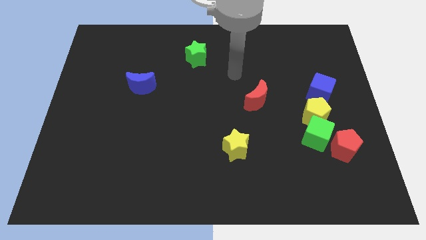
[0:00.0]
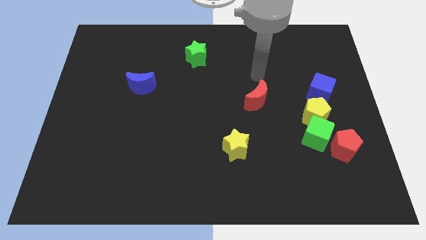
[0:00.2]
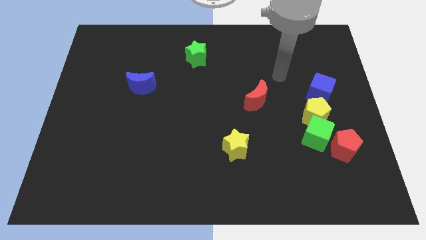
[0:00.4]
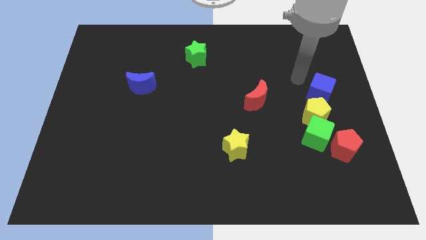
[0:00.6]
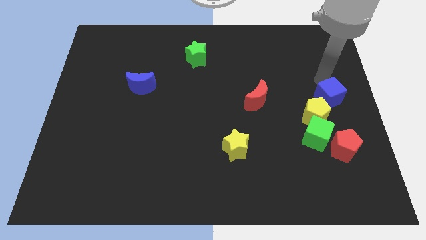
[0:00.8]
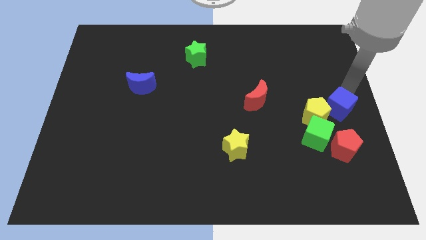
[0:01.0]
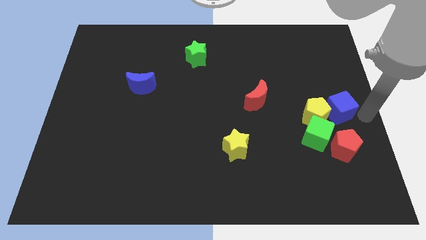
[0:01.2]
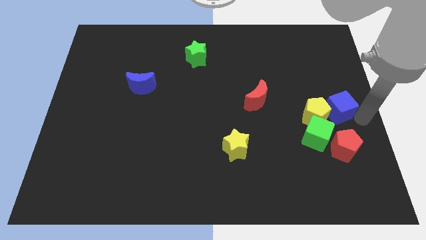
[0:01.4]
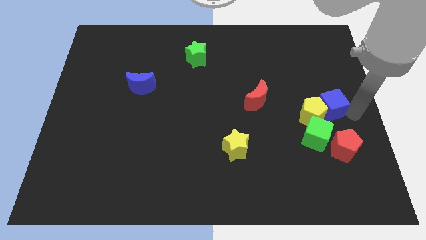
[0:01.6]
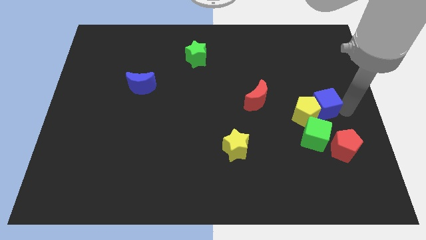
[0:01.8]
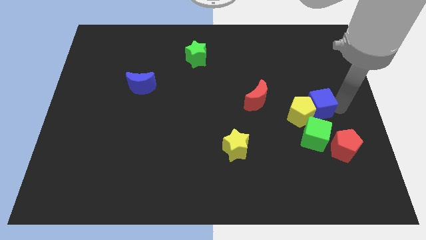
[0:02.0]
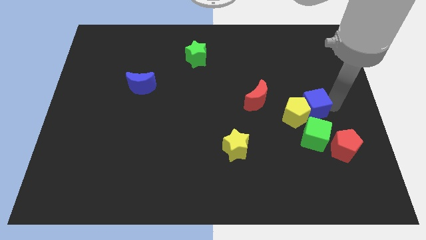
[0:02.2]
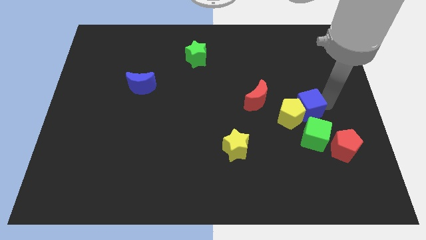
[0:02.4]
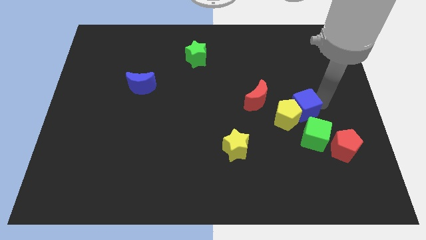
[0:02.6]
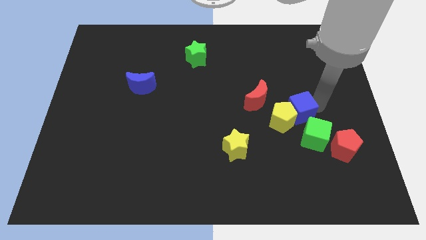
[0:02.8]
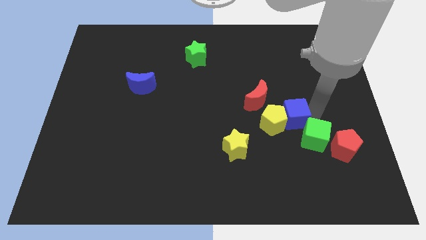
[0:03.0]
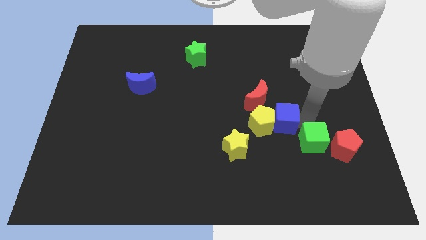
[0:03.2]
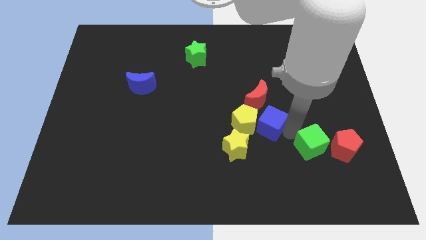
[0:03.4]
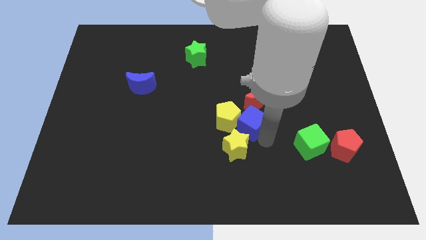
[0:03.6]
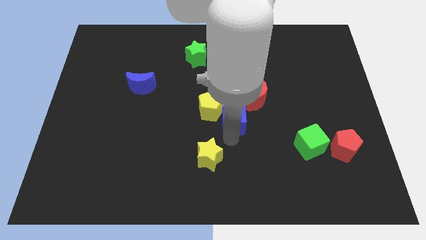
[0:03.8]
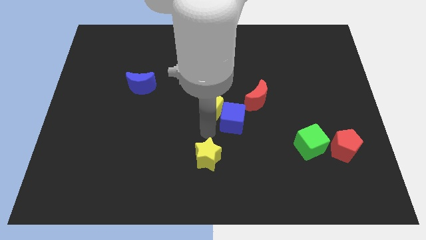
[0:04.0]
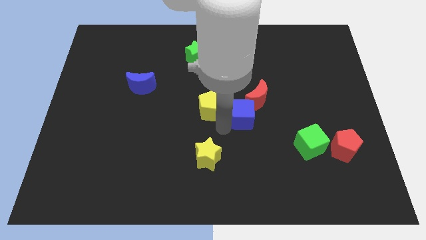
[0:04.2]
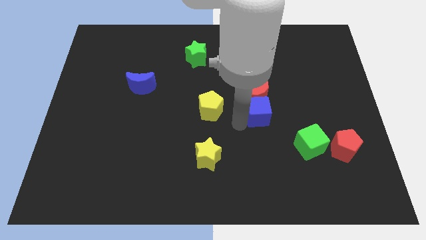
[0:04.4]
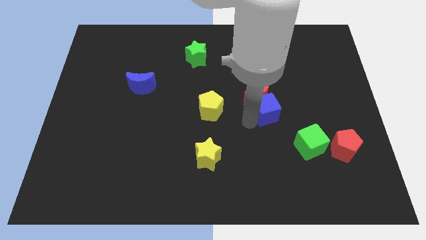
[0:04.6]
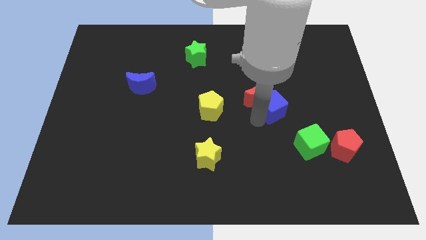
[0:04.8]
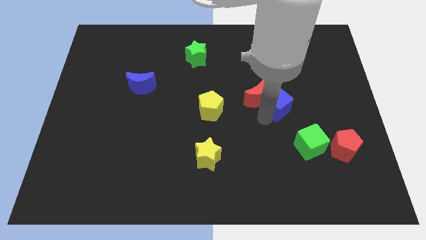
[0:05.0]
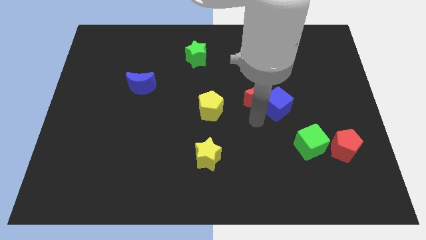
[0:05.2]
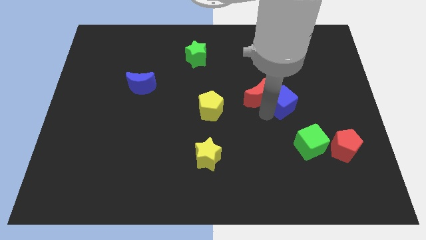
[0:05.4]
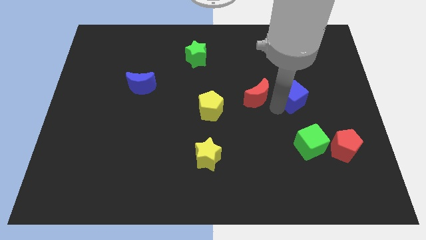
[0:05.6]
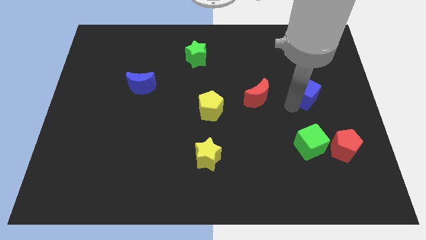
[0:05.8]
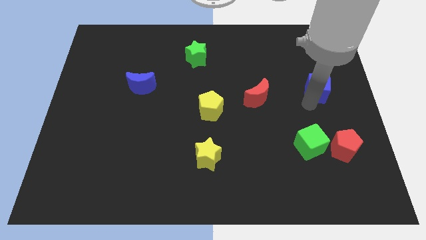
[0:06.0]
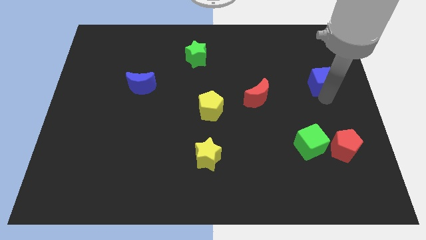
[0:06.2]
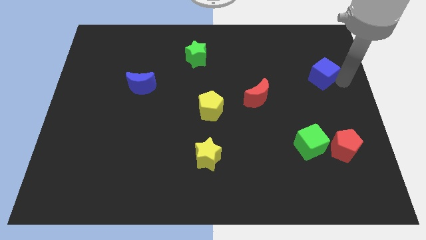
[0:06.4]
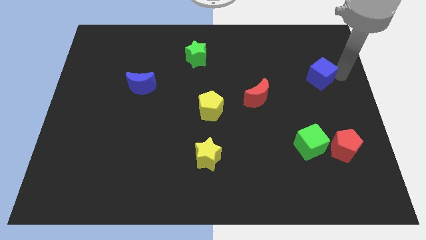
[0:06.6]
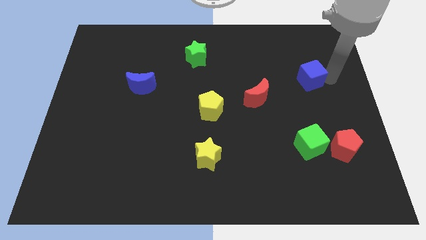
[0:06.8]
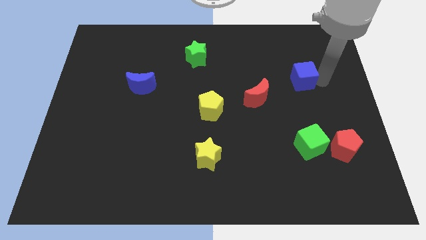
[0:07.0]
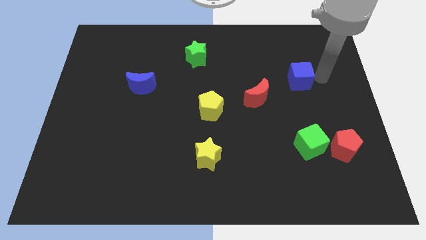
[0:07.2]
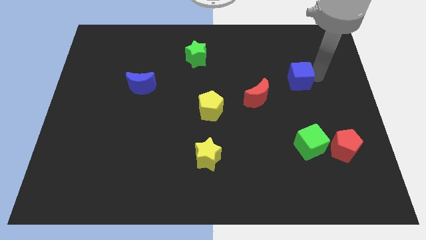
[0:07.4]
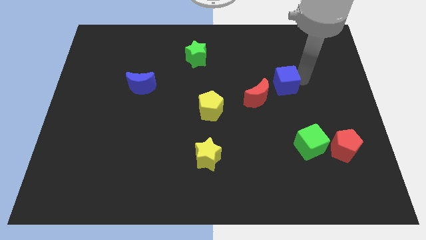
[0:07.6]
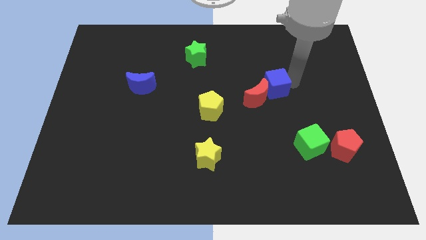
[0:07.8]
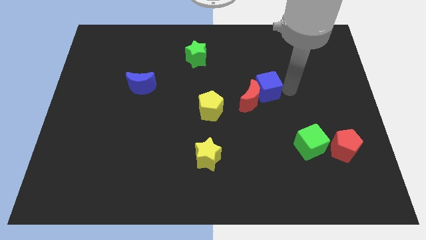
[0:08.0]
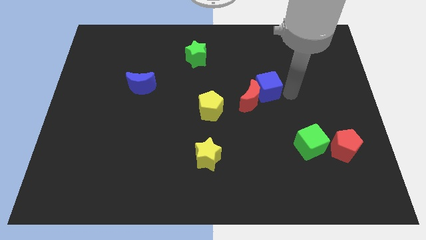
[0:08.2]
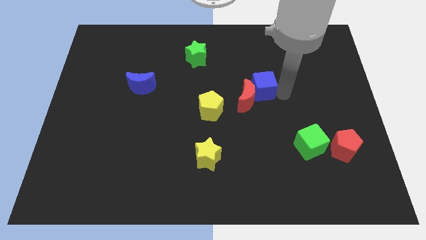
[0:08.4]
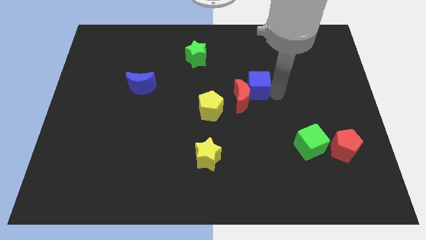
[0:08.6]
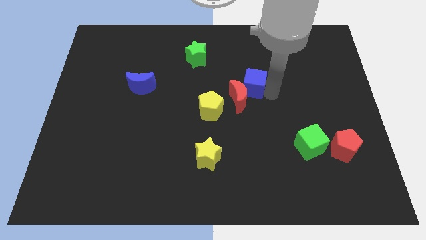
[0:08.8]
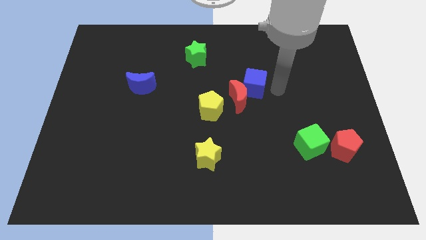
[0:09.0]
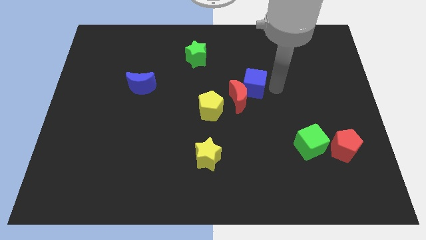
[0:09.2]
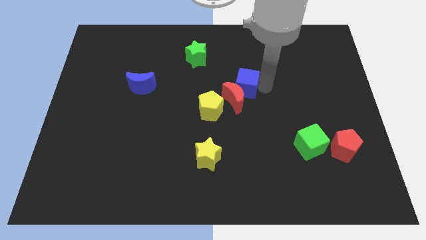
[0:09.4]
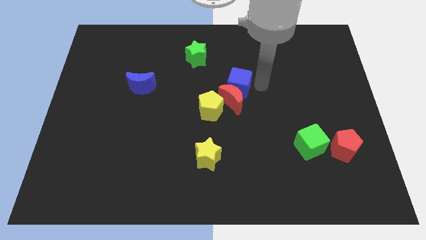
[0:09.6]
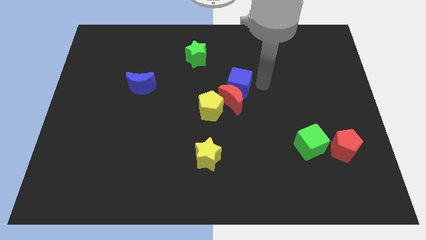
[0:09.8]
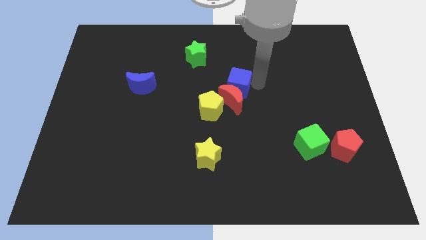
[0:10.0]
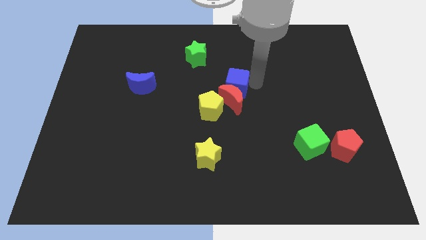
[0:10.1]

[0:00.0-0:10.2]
move the blue cube to the left

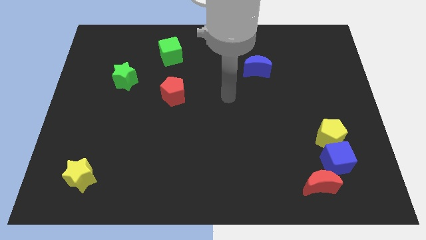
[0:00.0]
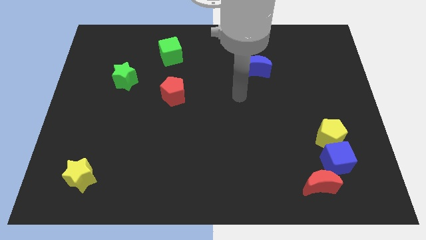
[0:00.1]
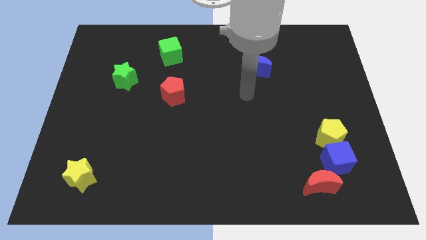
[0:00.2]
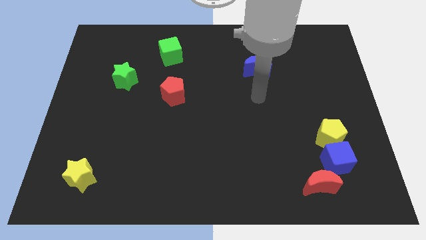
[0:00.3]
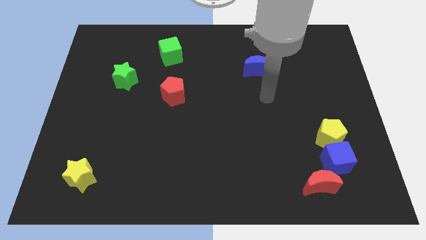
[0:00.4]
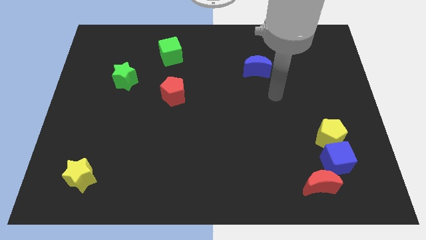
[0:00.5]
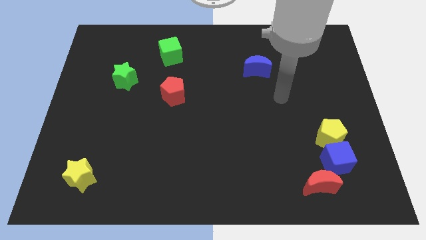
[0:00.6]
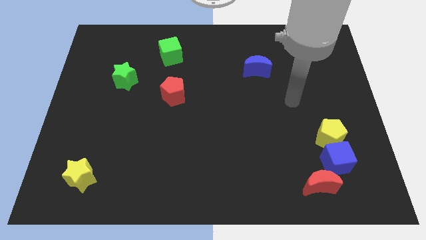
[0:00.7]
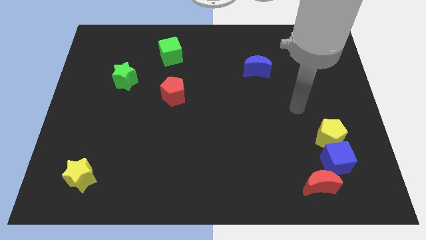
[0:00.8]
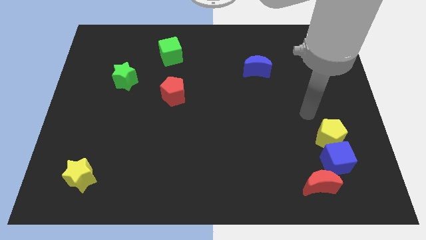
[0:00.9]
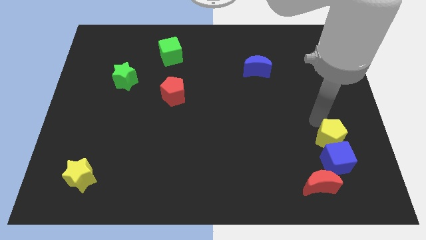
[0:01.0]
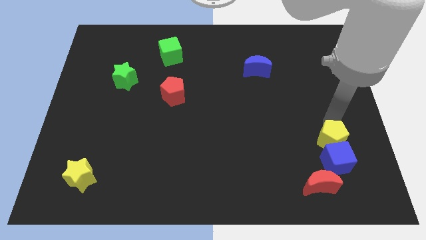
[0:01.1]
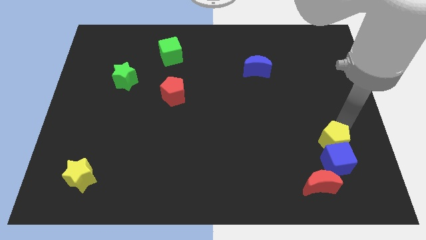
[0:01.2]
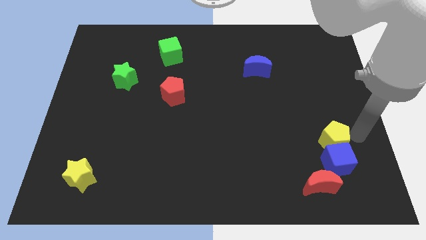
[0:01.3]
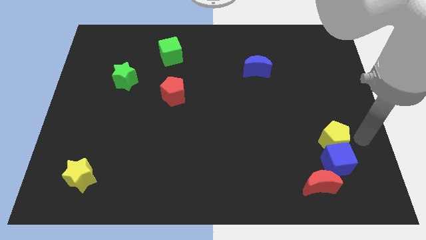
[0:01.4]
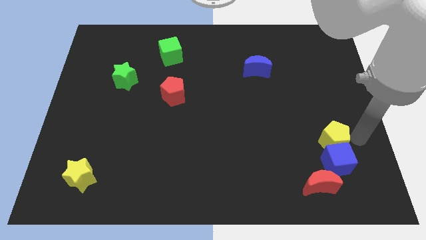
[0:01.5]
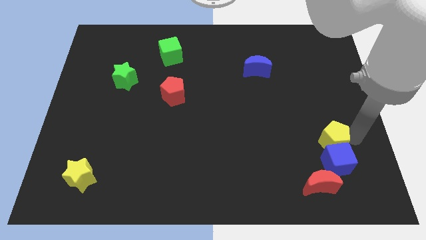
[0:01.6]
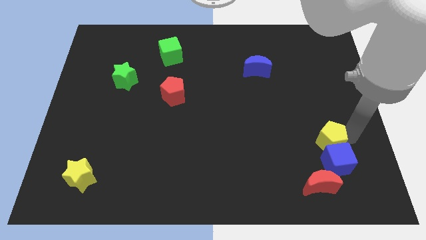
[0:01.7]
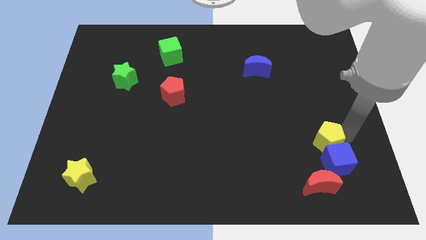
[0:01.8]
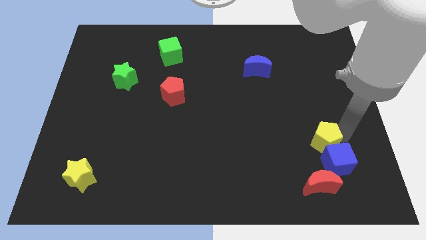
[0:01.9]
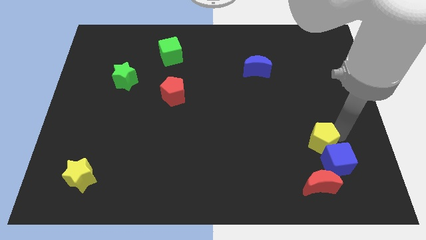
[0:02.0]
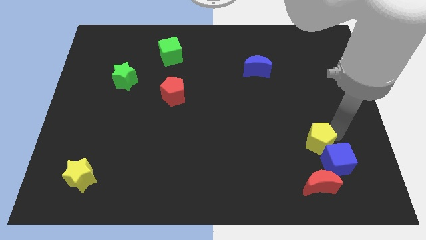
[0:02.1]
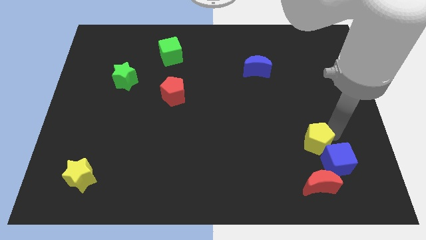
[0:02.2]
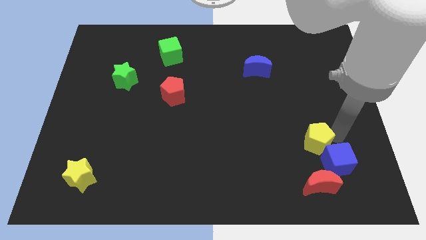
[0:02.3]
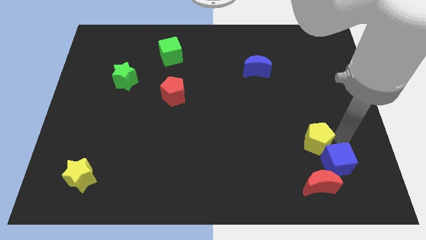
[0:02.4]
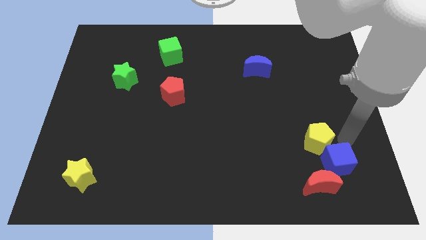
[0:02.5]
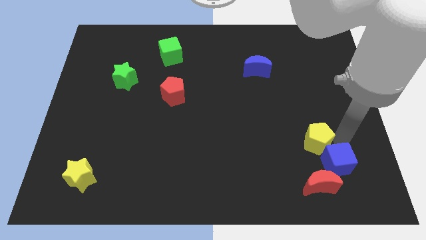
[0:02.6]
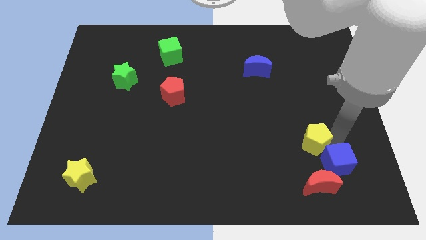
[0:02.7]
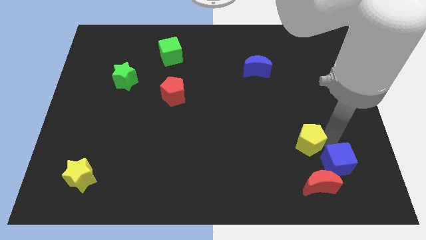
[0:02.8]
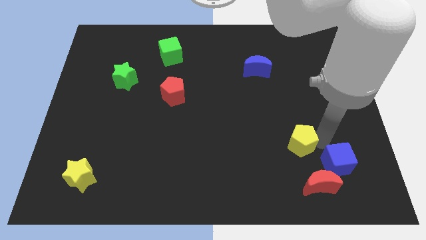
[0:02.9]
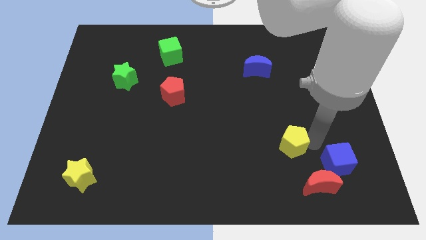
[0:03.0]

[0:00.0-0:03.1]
slightly move the yellow pentagon left
